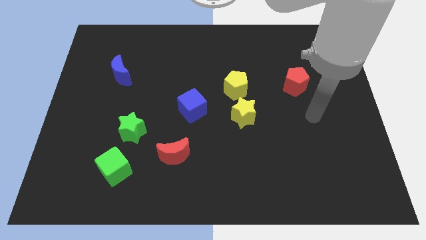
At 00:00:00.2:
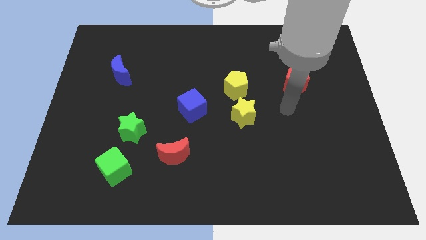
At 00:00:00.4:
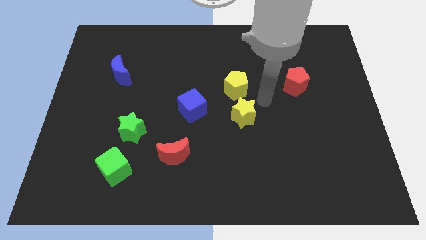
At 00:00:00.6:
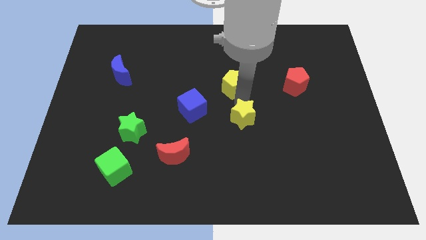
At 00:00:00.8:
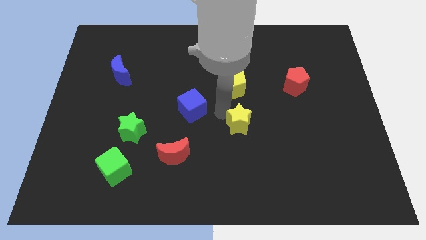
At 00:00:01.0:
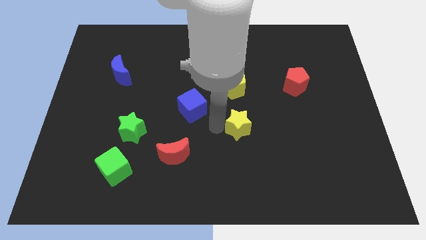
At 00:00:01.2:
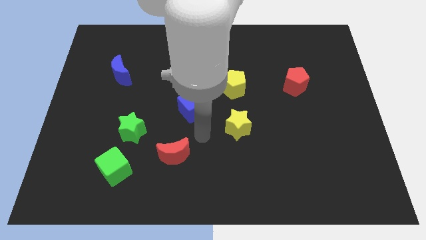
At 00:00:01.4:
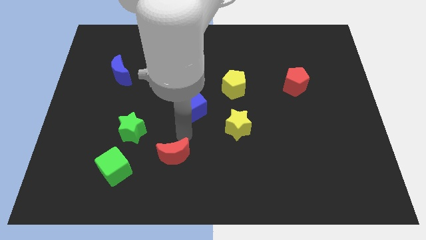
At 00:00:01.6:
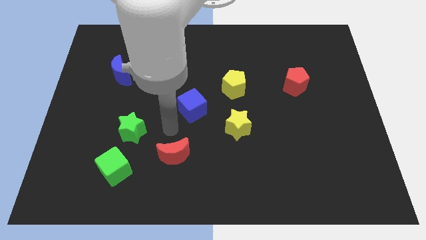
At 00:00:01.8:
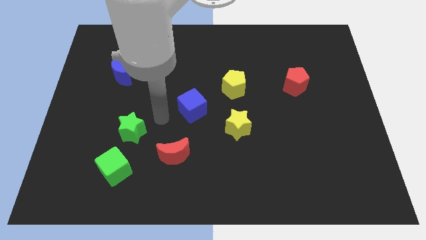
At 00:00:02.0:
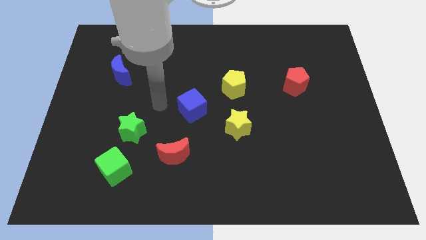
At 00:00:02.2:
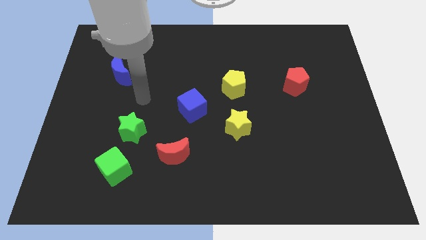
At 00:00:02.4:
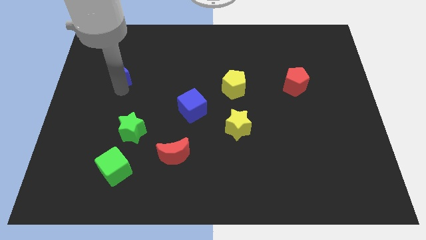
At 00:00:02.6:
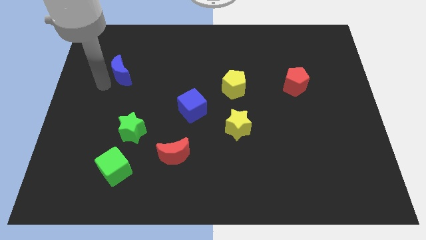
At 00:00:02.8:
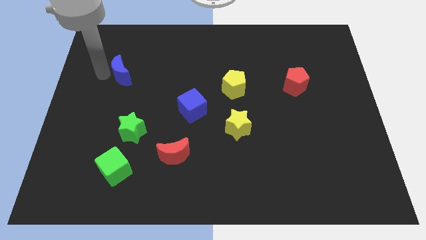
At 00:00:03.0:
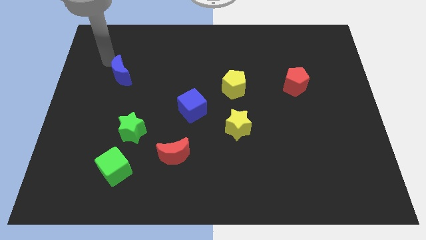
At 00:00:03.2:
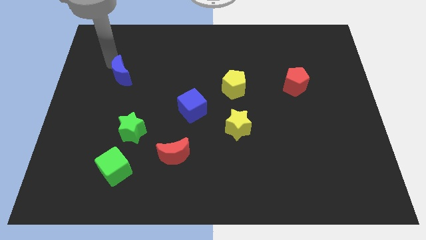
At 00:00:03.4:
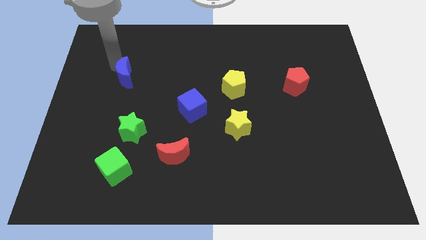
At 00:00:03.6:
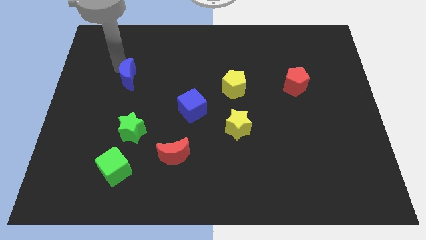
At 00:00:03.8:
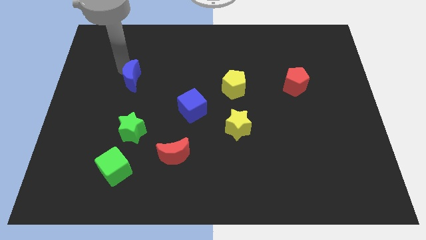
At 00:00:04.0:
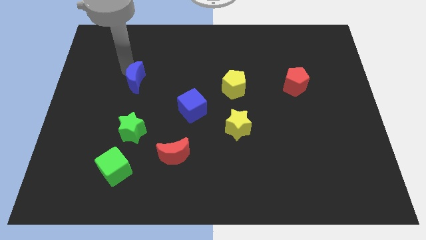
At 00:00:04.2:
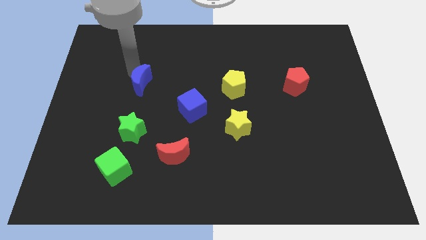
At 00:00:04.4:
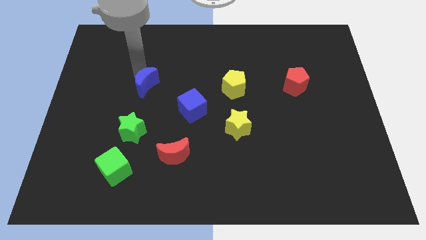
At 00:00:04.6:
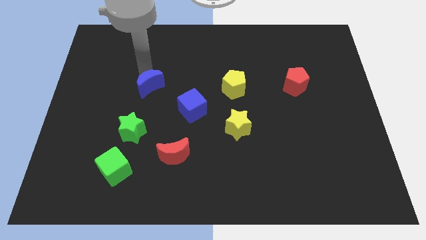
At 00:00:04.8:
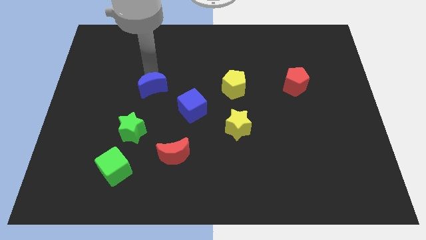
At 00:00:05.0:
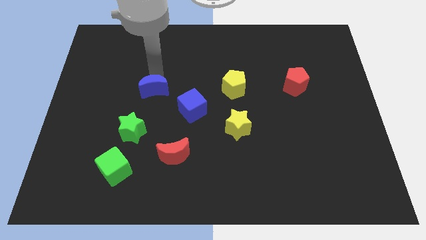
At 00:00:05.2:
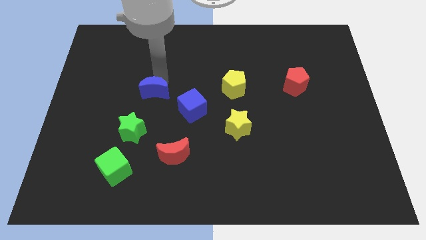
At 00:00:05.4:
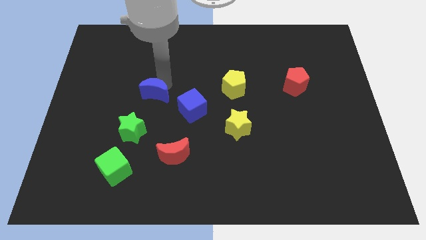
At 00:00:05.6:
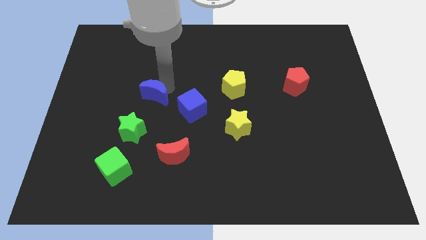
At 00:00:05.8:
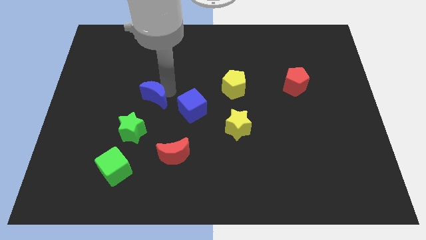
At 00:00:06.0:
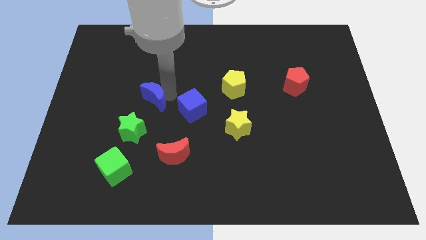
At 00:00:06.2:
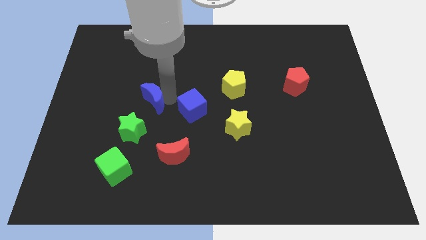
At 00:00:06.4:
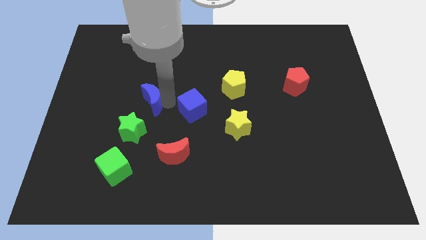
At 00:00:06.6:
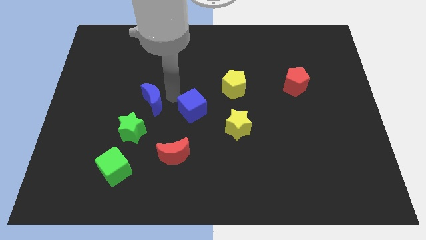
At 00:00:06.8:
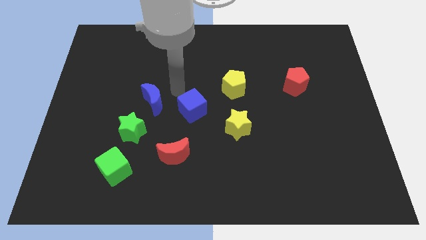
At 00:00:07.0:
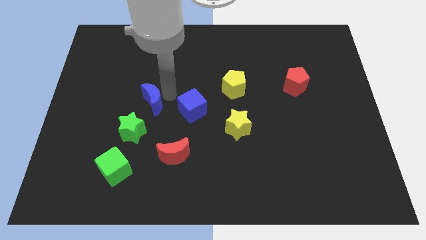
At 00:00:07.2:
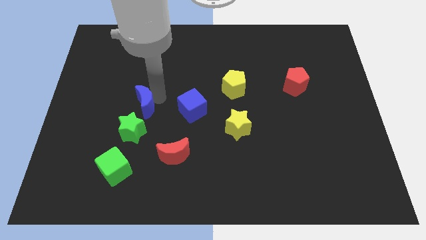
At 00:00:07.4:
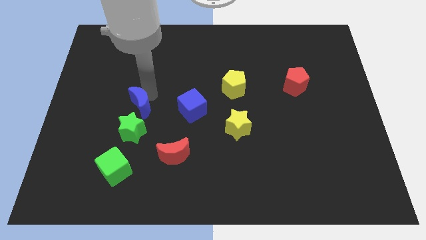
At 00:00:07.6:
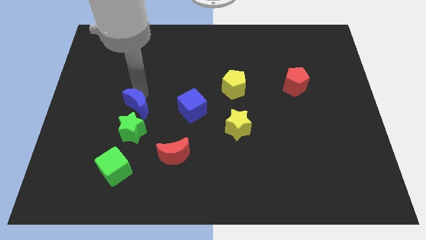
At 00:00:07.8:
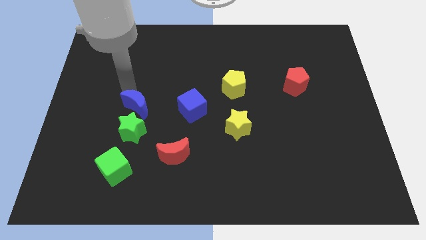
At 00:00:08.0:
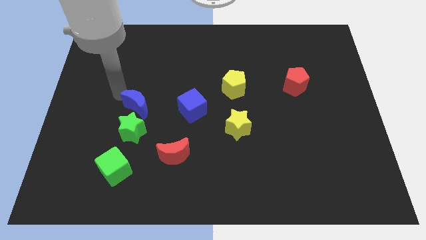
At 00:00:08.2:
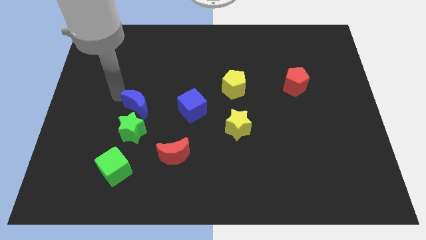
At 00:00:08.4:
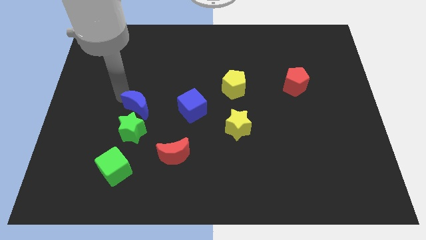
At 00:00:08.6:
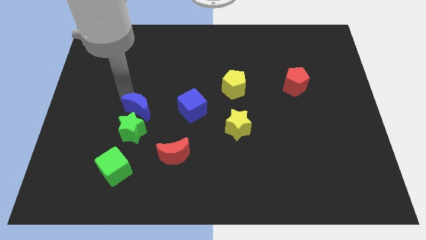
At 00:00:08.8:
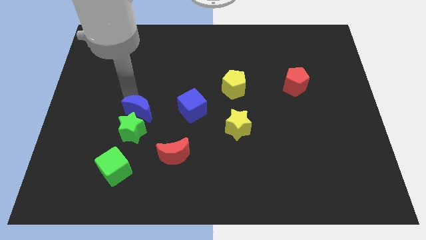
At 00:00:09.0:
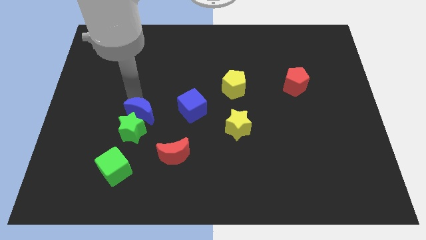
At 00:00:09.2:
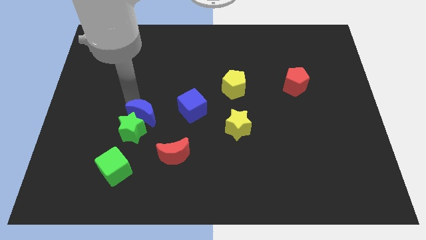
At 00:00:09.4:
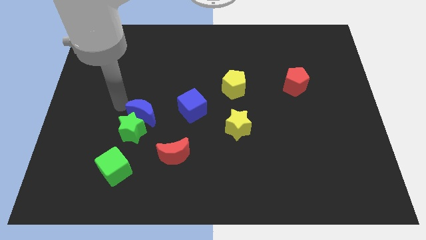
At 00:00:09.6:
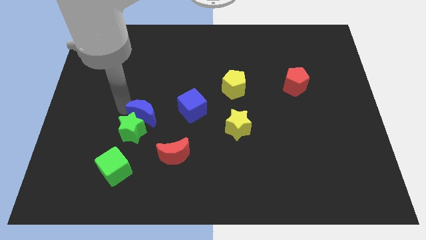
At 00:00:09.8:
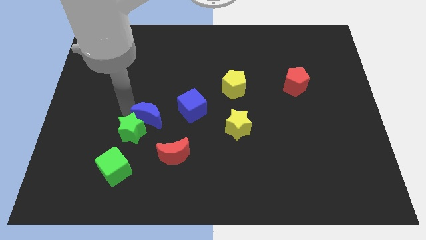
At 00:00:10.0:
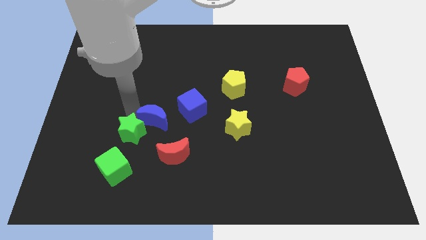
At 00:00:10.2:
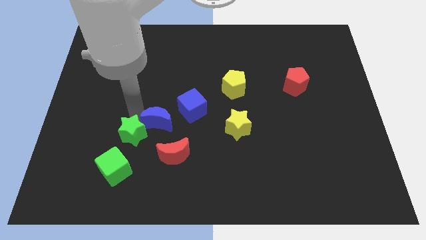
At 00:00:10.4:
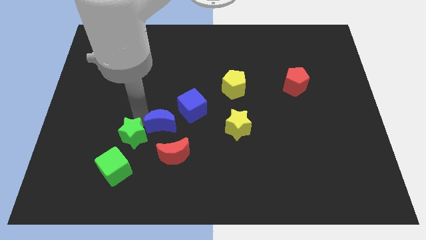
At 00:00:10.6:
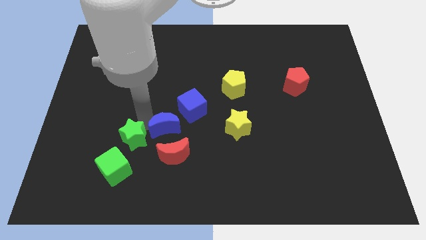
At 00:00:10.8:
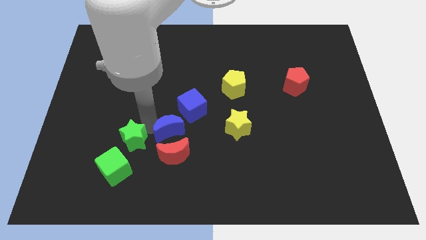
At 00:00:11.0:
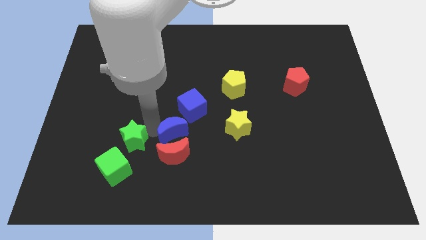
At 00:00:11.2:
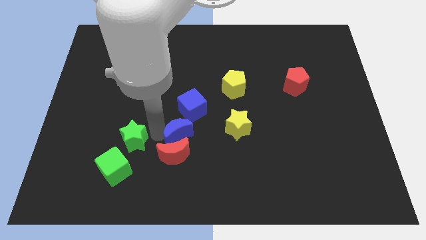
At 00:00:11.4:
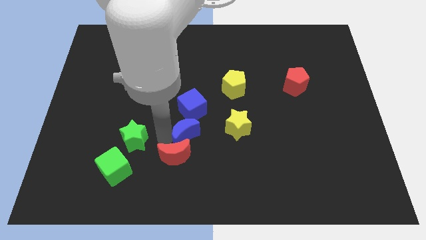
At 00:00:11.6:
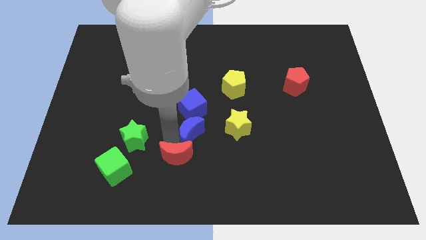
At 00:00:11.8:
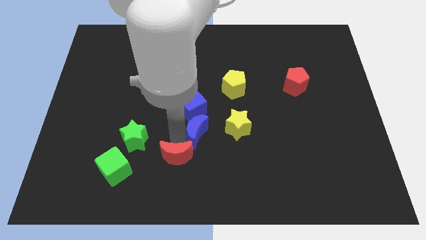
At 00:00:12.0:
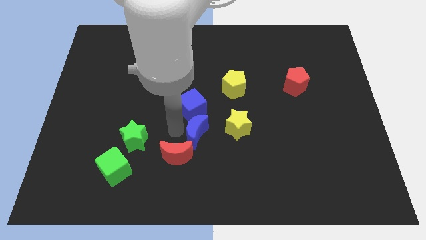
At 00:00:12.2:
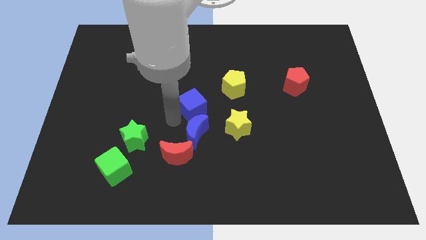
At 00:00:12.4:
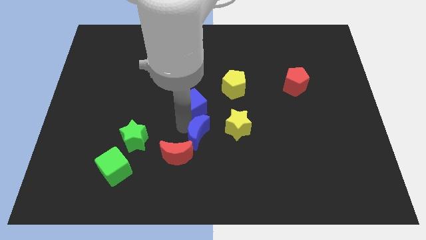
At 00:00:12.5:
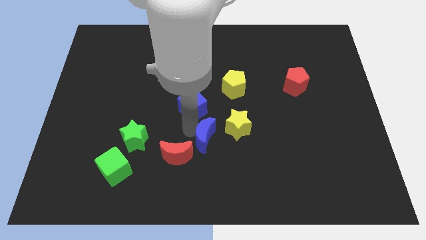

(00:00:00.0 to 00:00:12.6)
slide the blue moon diagonally down and to the left of the yellow star
